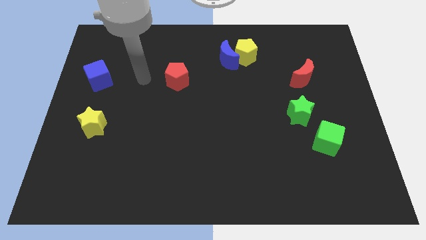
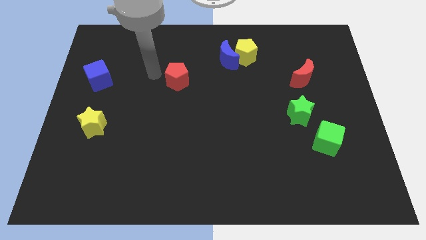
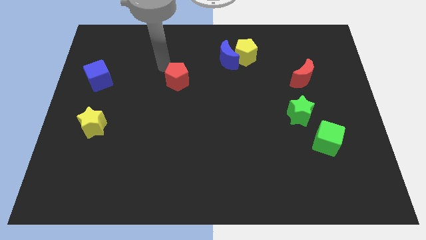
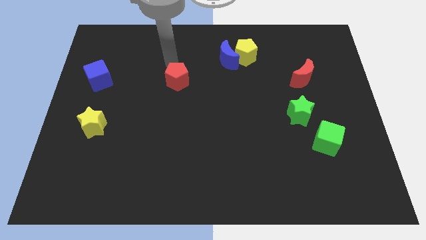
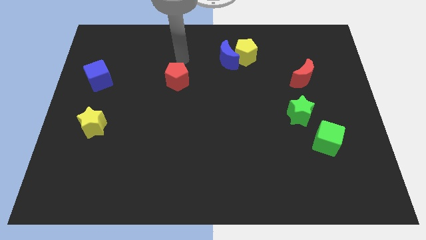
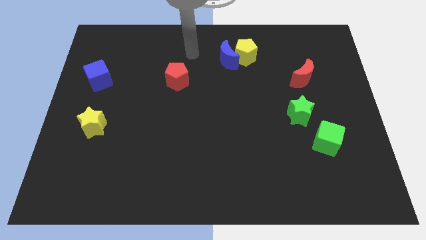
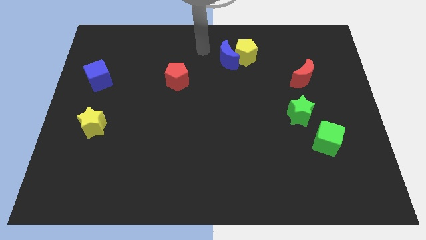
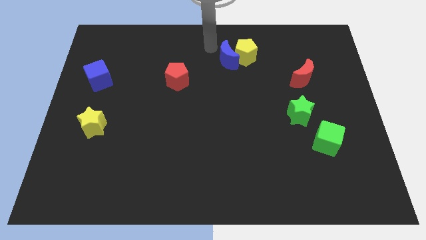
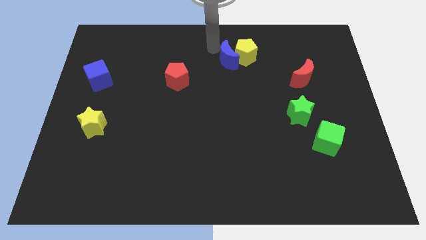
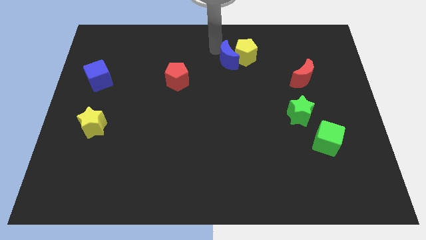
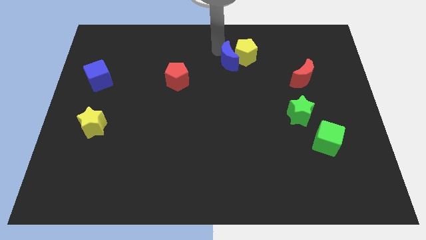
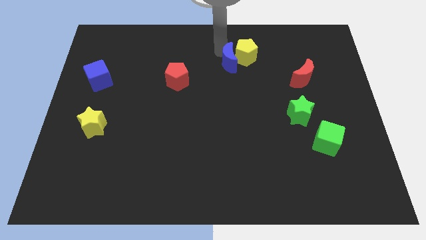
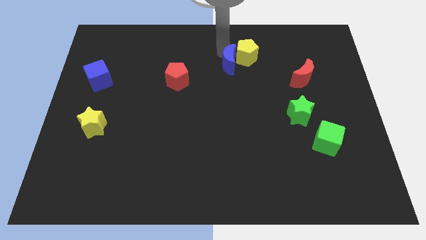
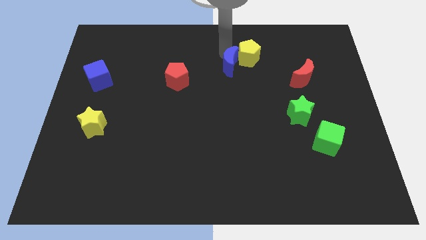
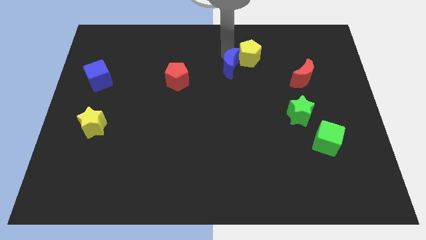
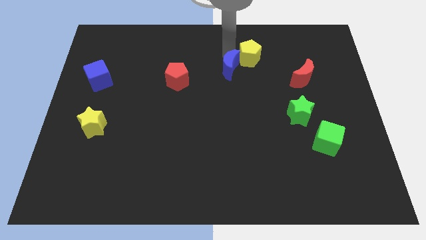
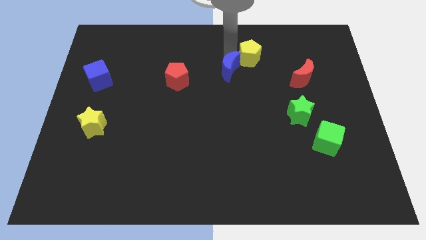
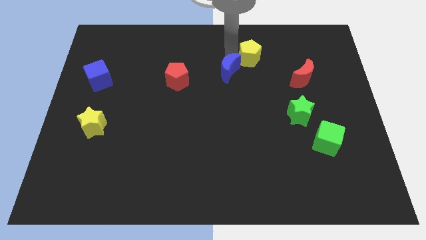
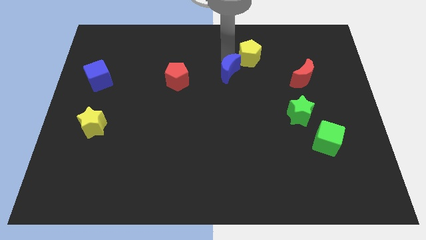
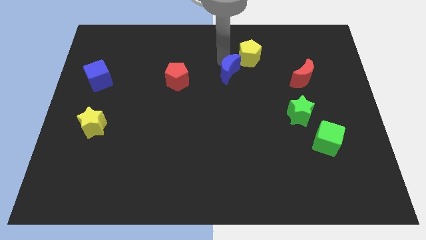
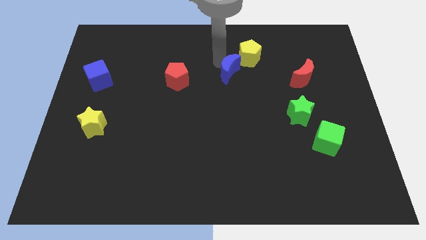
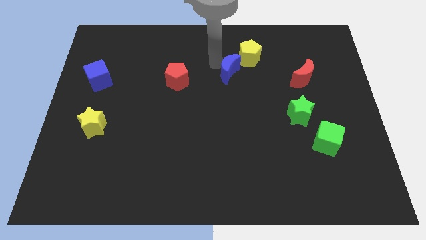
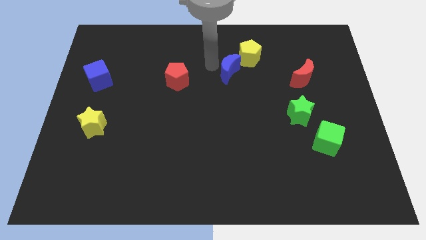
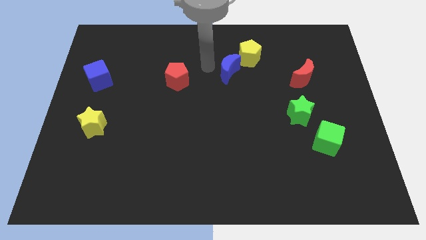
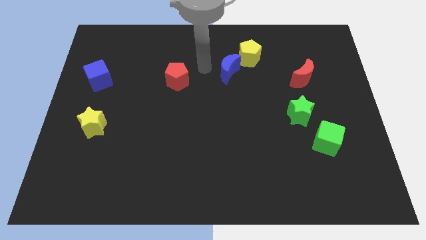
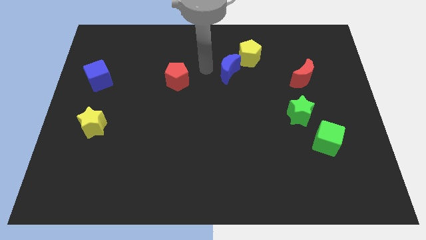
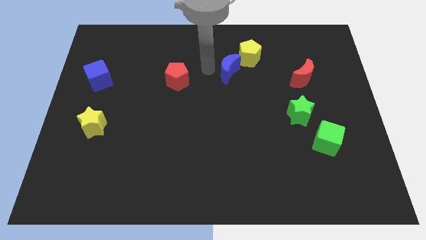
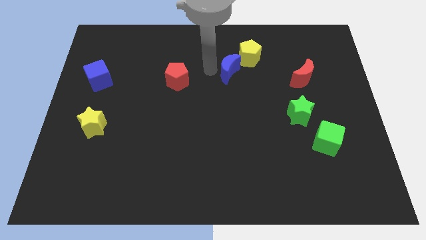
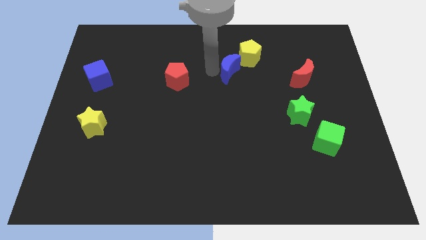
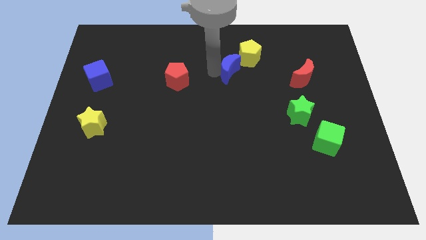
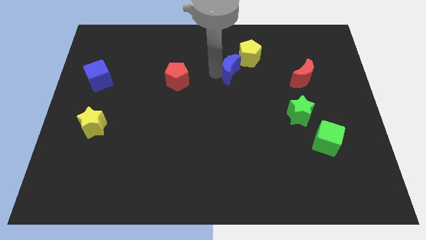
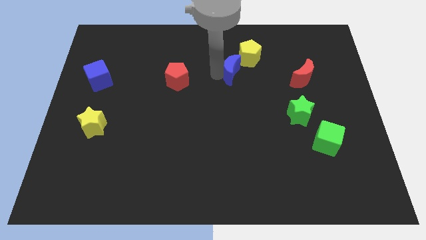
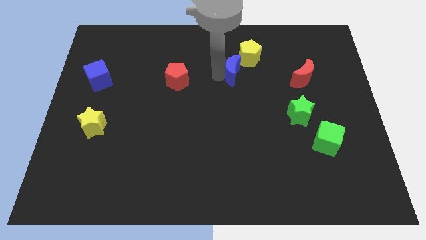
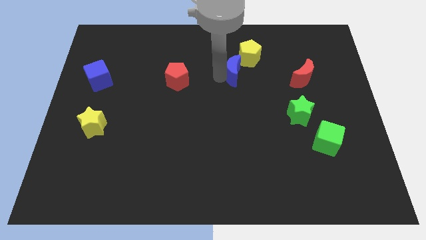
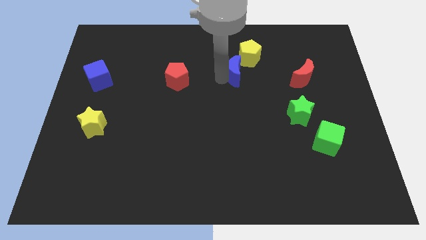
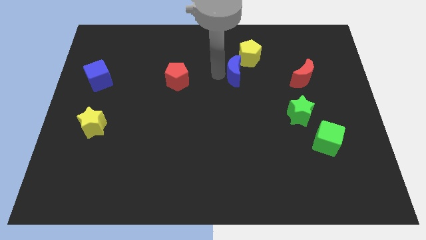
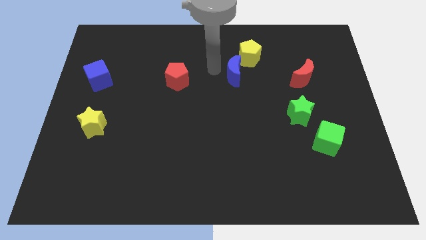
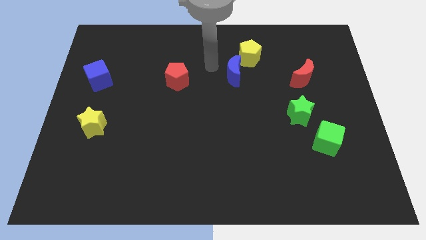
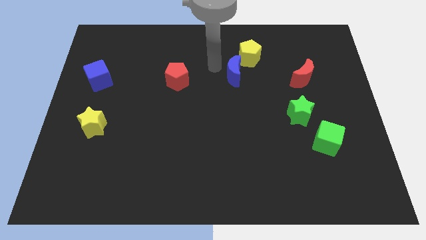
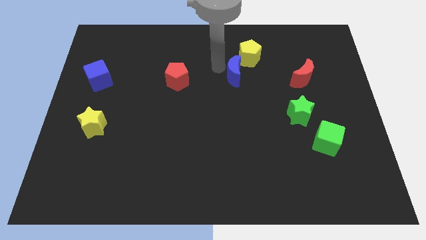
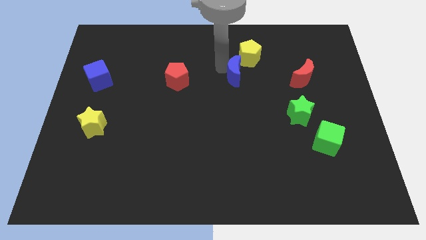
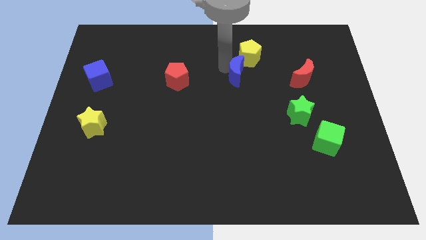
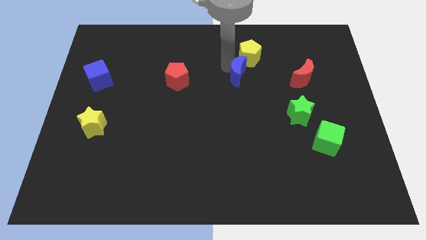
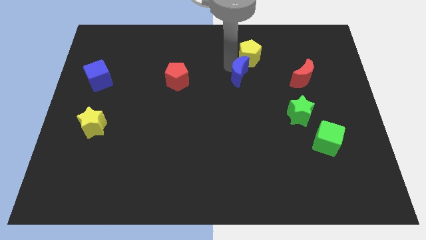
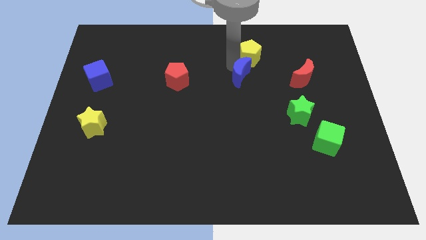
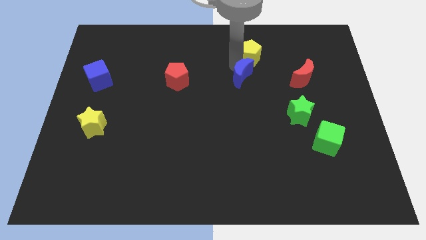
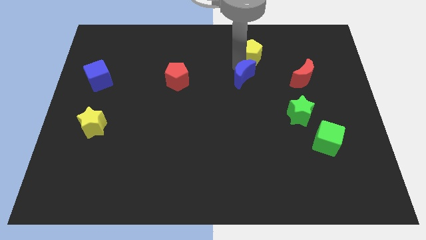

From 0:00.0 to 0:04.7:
slightly move the blue moon diagonally downwards and right

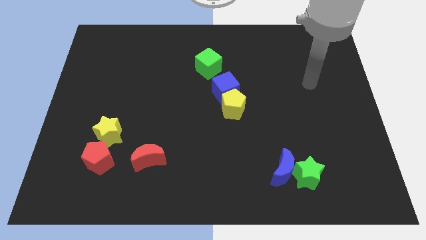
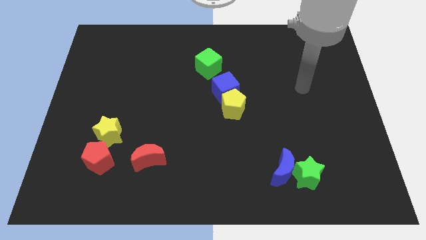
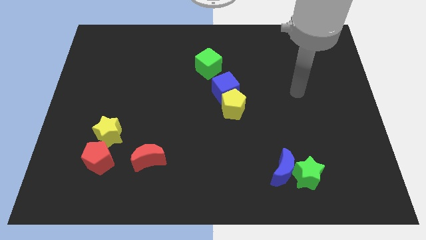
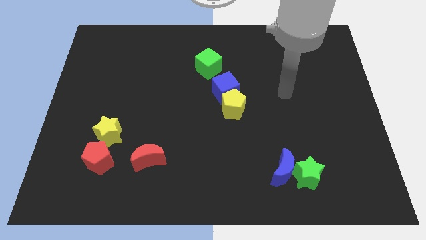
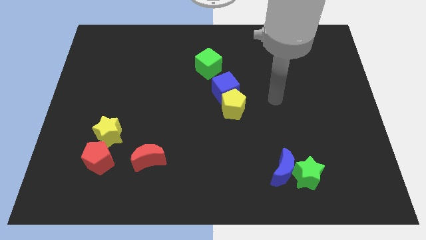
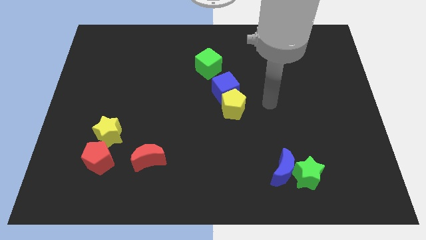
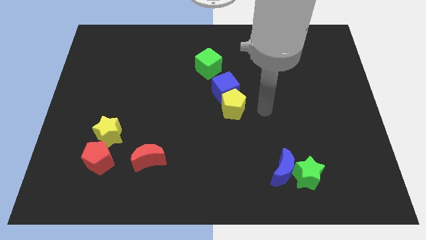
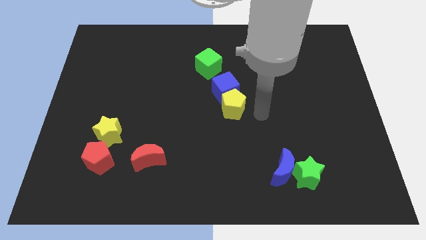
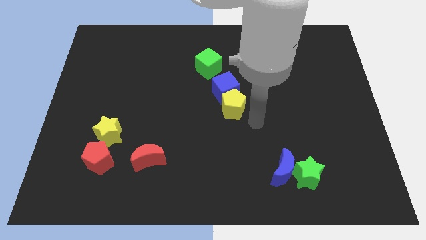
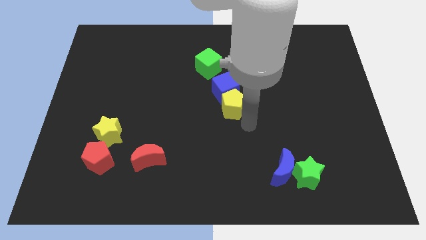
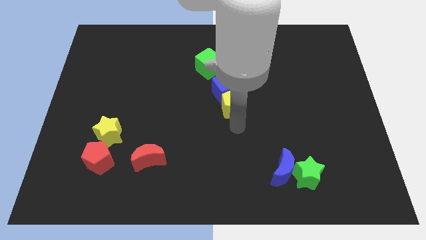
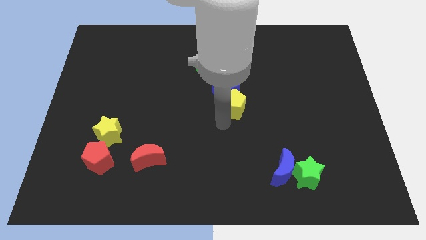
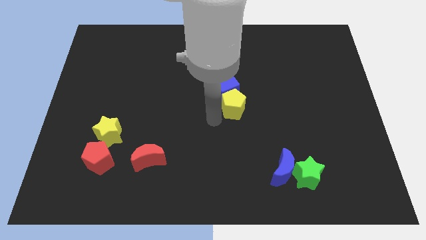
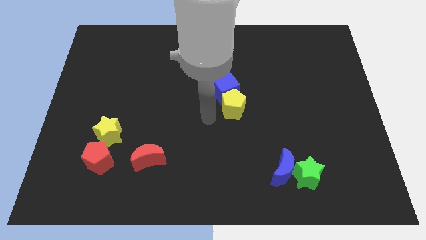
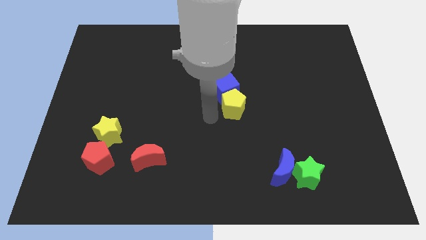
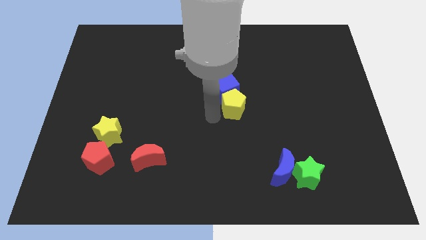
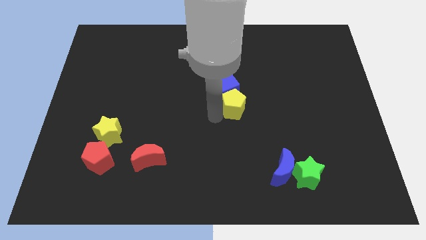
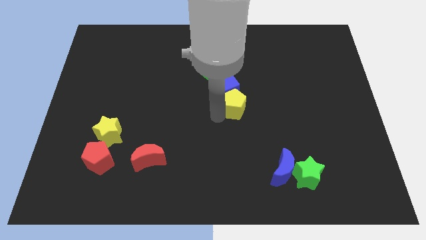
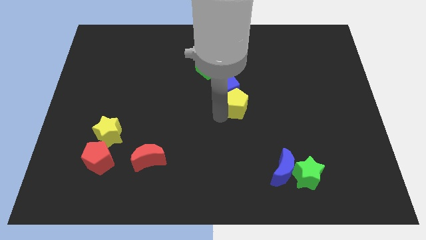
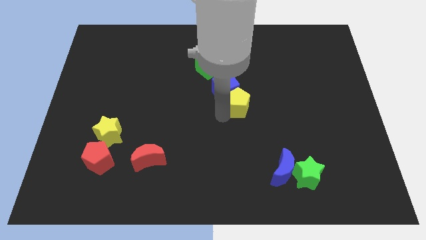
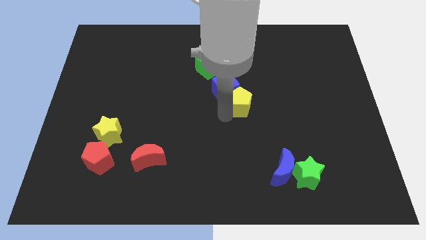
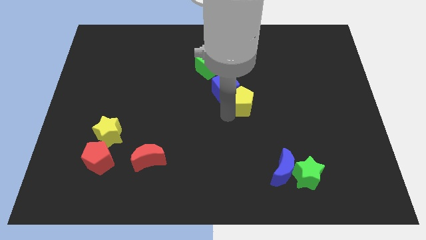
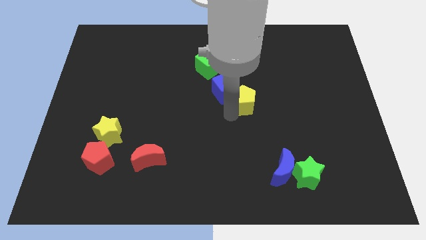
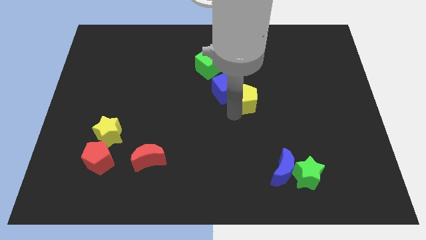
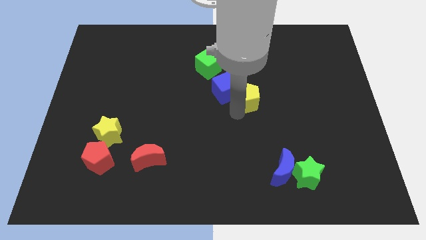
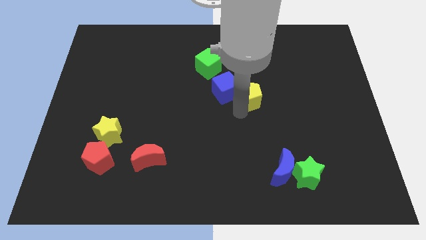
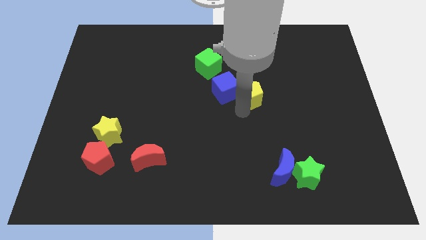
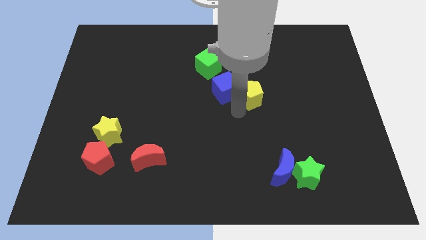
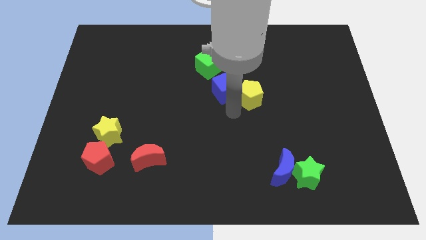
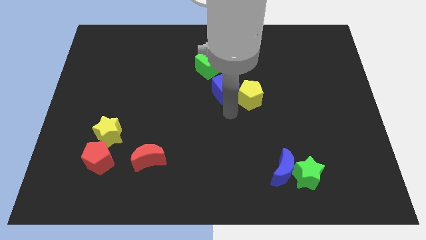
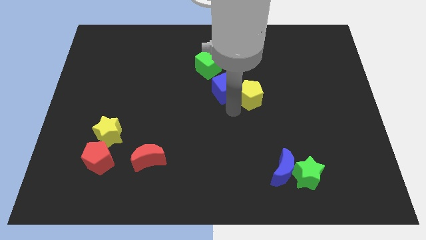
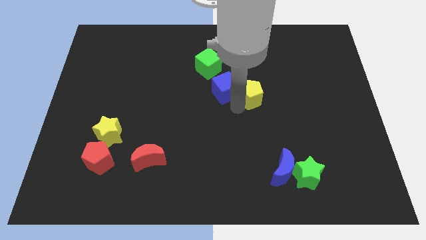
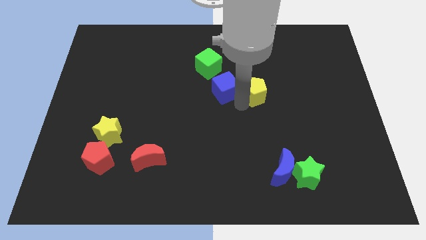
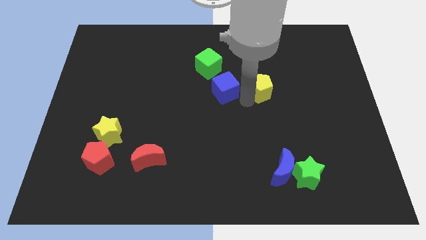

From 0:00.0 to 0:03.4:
slightly slide the yellow pentagon diagonally up and to the right
